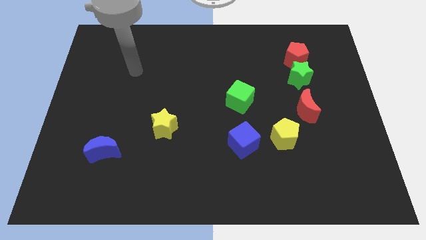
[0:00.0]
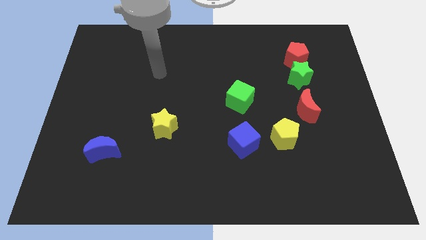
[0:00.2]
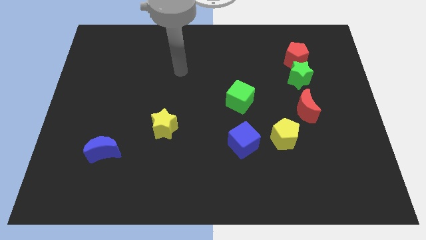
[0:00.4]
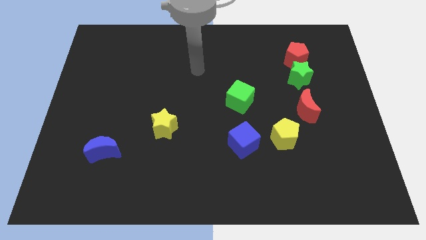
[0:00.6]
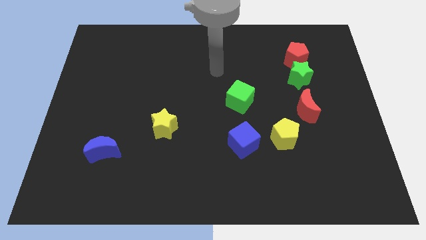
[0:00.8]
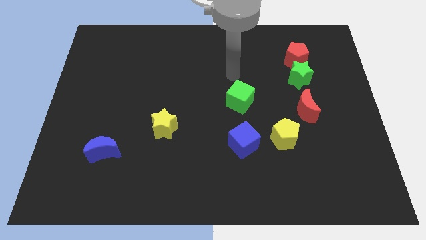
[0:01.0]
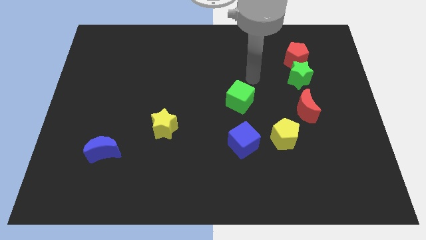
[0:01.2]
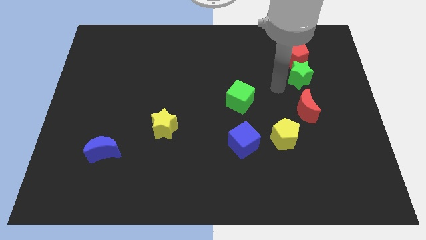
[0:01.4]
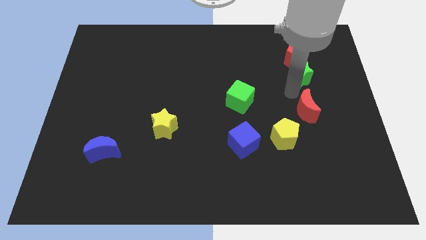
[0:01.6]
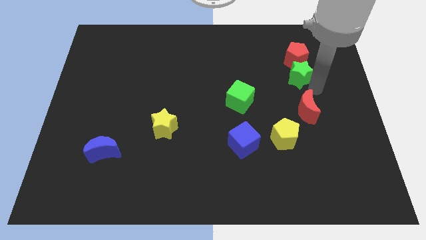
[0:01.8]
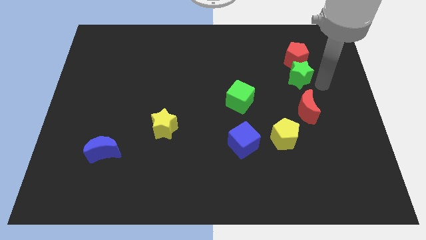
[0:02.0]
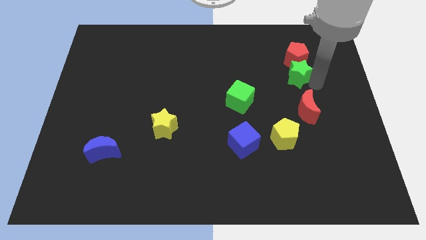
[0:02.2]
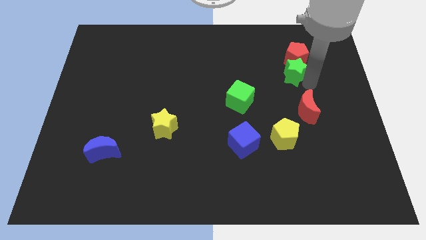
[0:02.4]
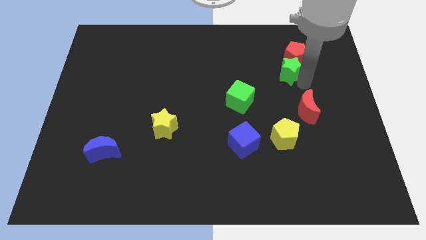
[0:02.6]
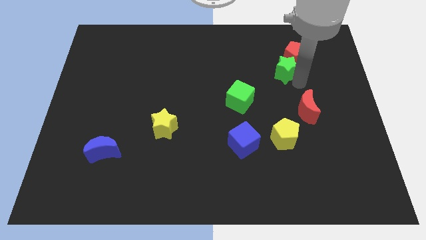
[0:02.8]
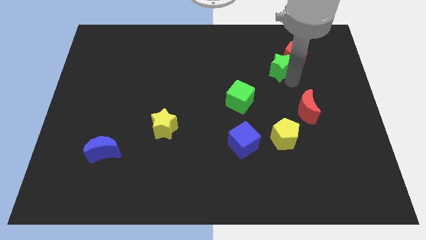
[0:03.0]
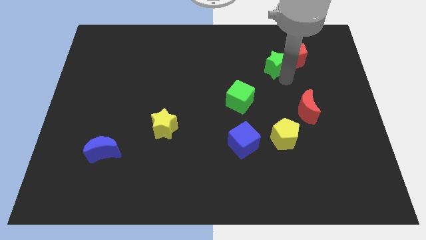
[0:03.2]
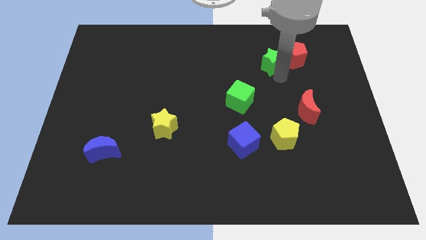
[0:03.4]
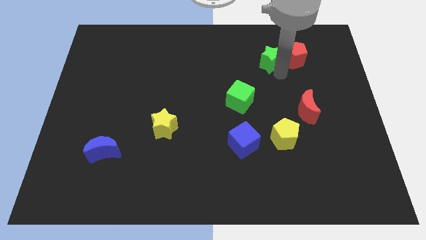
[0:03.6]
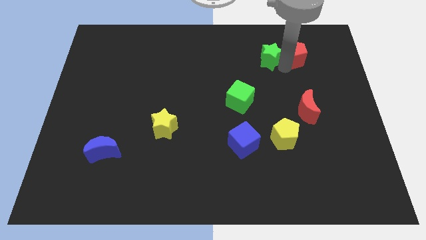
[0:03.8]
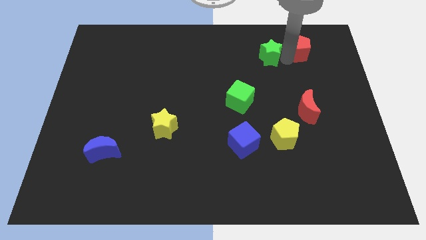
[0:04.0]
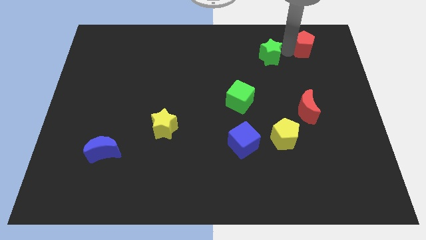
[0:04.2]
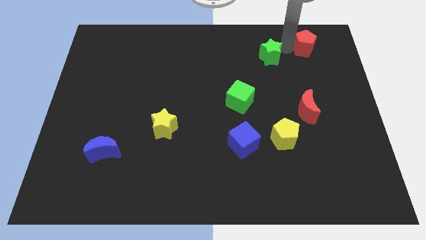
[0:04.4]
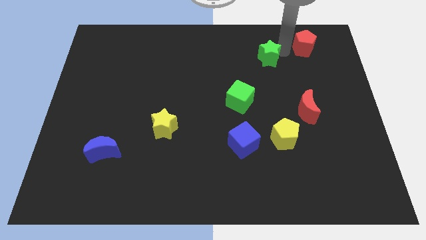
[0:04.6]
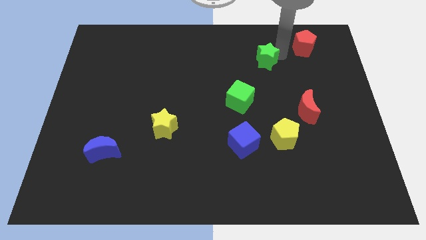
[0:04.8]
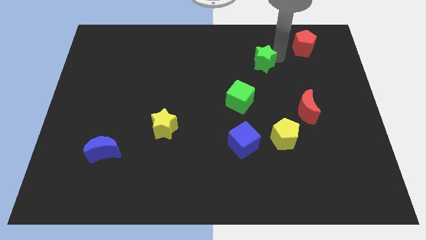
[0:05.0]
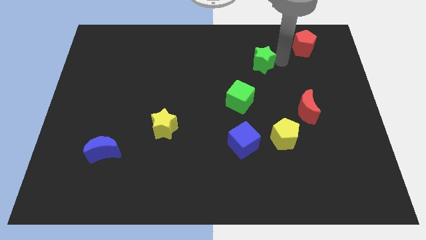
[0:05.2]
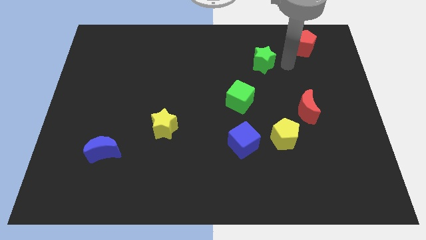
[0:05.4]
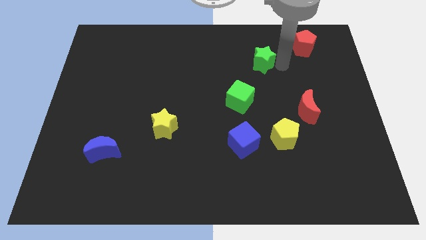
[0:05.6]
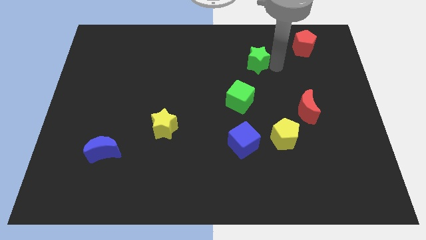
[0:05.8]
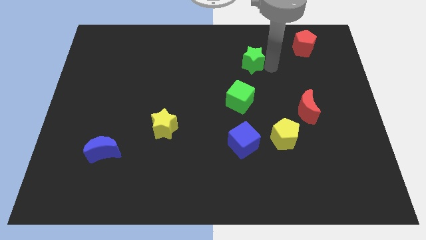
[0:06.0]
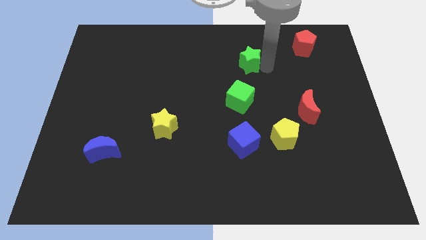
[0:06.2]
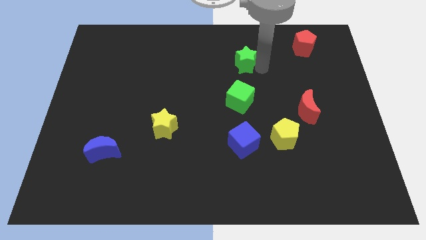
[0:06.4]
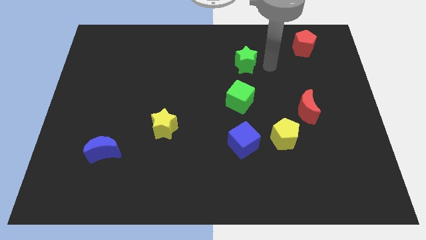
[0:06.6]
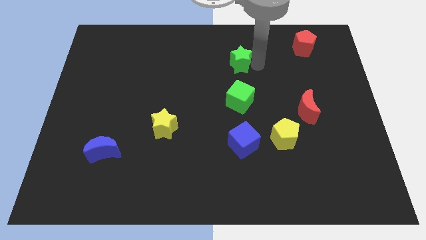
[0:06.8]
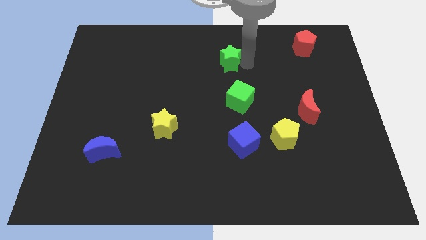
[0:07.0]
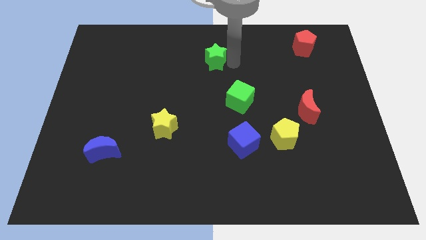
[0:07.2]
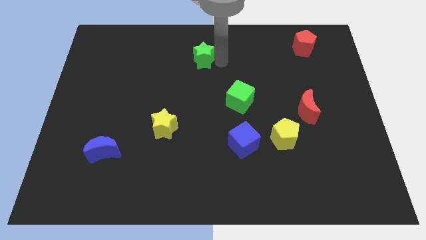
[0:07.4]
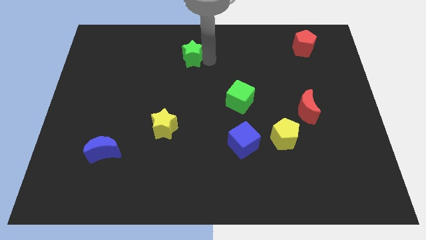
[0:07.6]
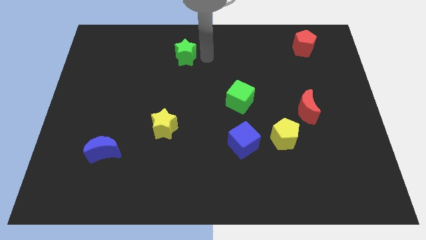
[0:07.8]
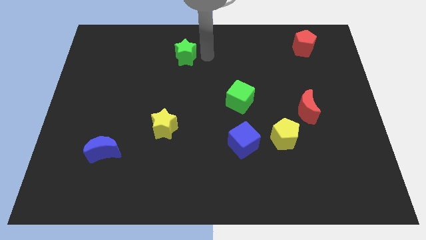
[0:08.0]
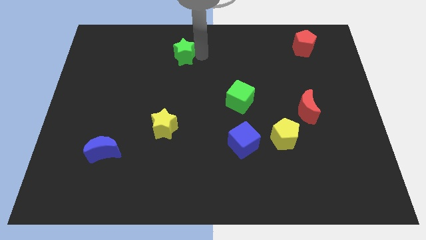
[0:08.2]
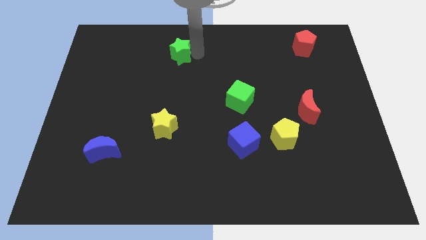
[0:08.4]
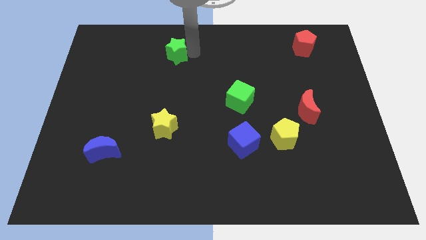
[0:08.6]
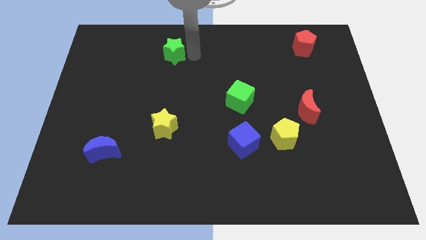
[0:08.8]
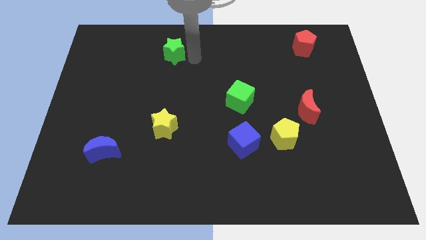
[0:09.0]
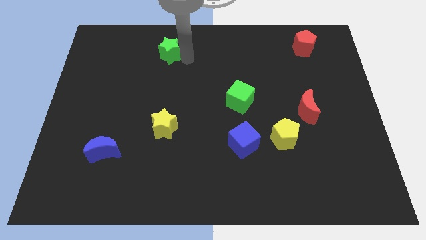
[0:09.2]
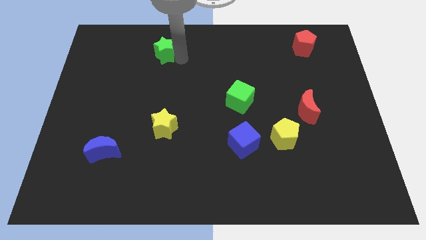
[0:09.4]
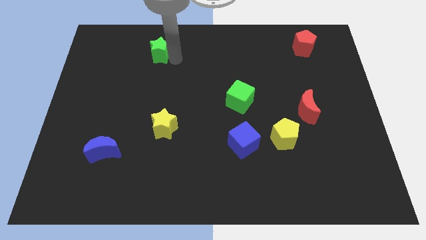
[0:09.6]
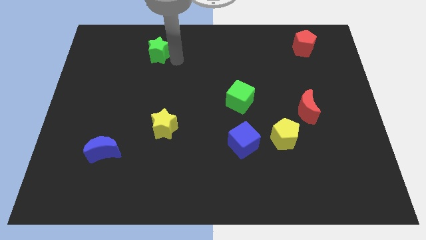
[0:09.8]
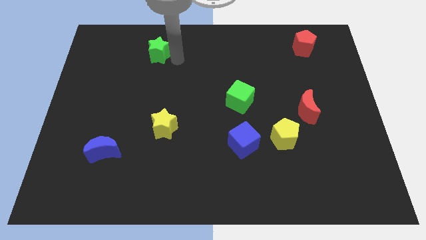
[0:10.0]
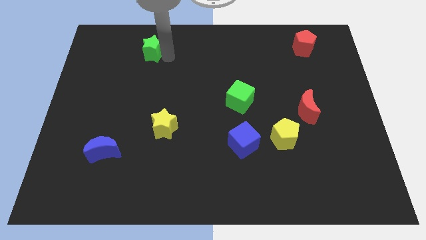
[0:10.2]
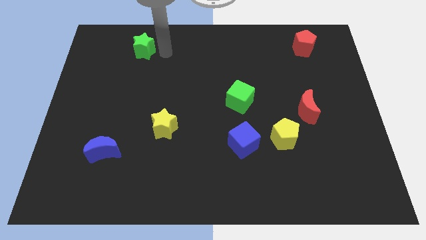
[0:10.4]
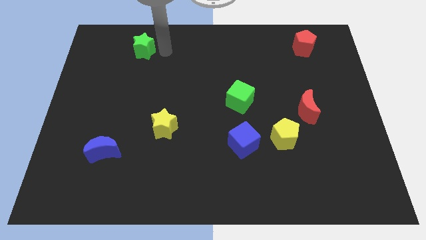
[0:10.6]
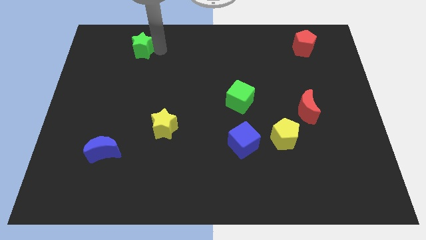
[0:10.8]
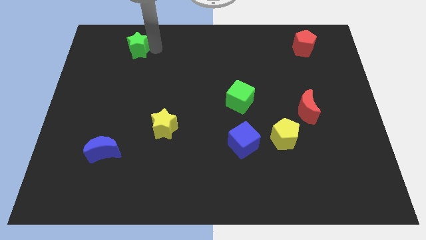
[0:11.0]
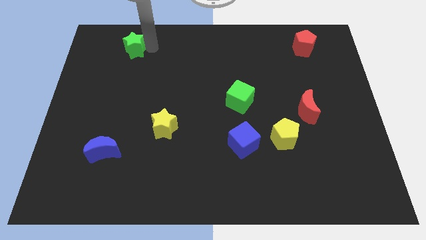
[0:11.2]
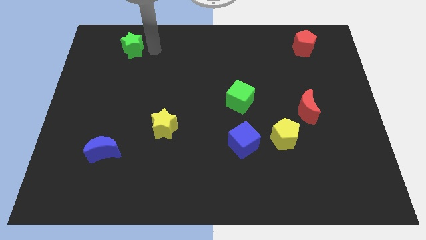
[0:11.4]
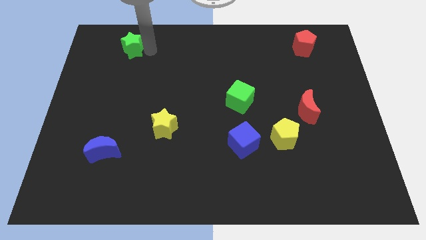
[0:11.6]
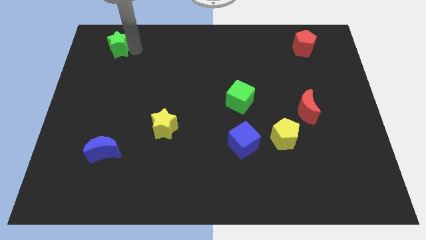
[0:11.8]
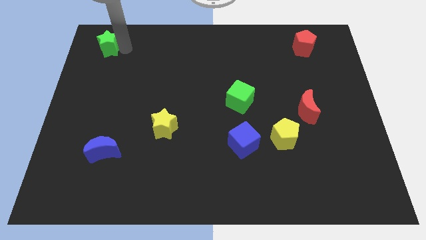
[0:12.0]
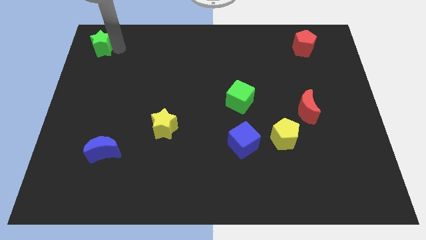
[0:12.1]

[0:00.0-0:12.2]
put the green star to the top left of the board
